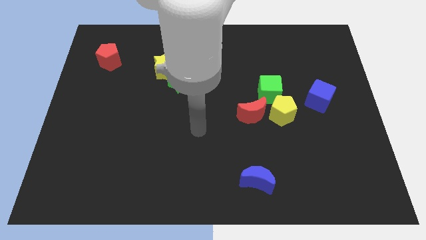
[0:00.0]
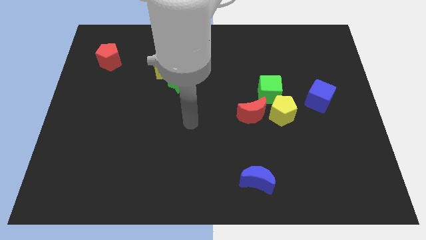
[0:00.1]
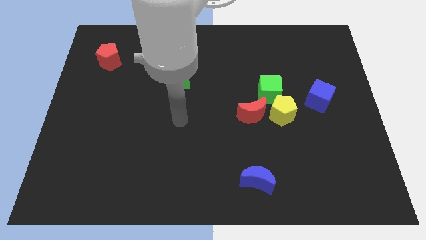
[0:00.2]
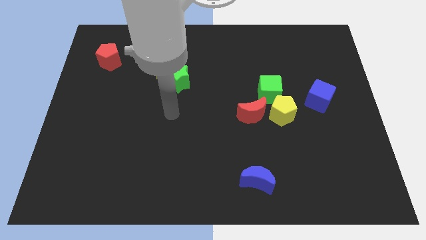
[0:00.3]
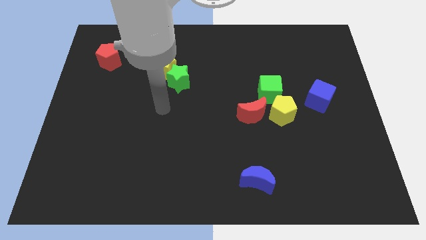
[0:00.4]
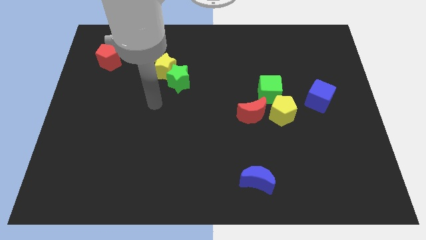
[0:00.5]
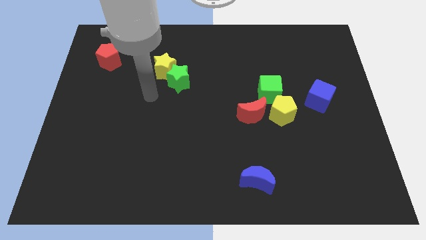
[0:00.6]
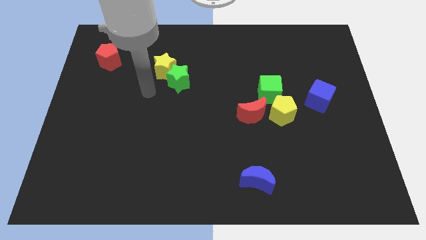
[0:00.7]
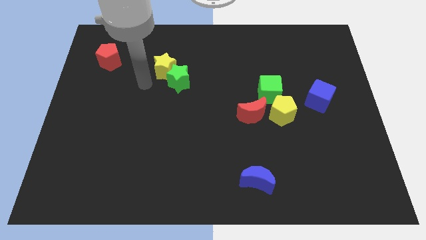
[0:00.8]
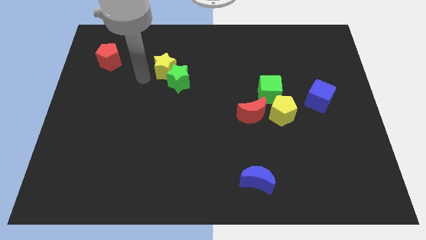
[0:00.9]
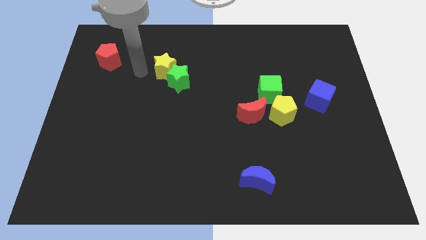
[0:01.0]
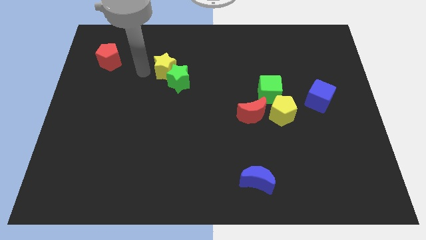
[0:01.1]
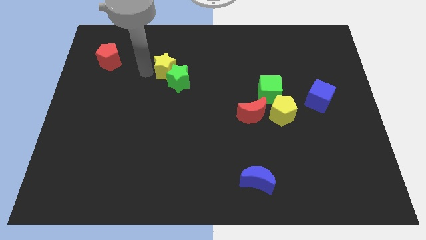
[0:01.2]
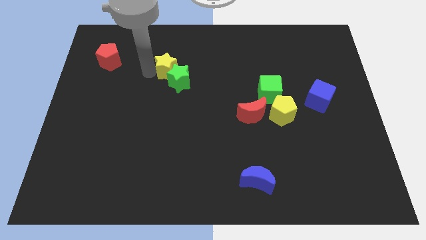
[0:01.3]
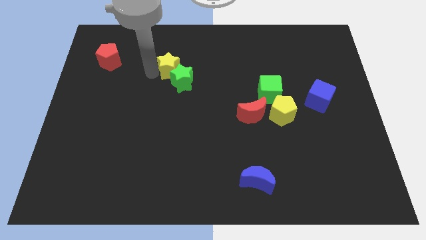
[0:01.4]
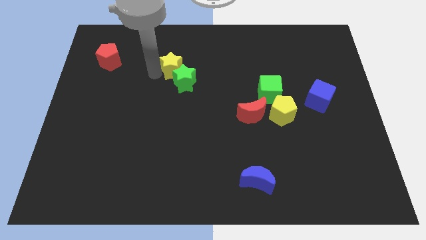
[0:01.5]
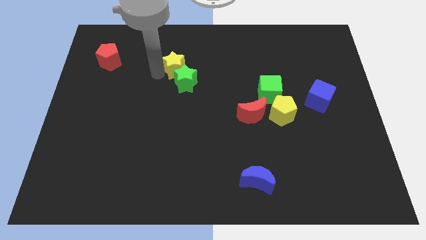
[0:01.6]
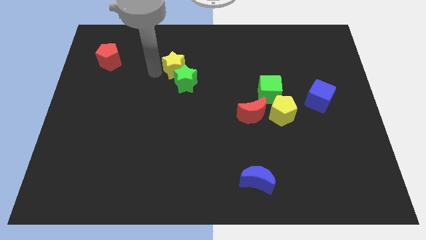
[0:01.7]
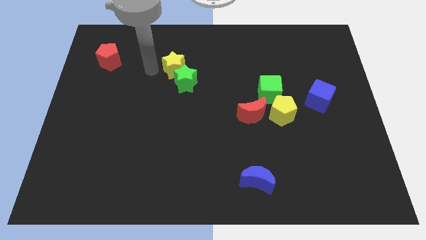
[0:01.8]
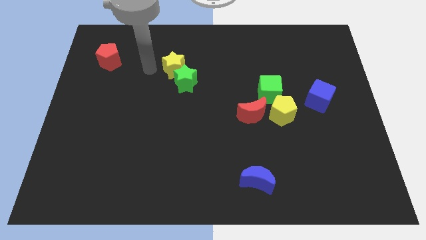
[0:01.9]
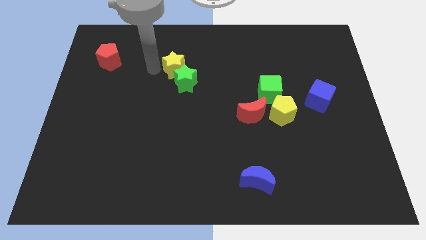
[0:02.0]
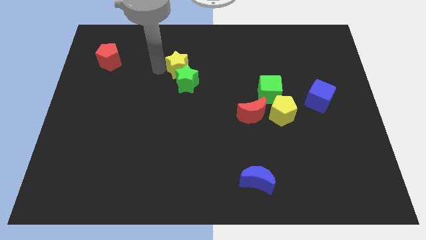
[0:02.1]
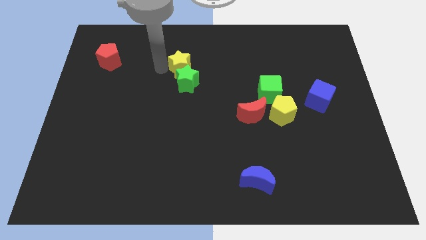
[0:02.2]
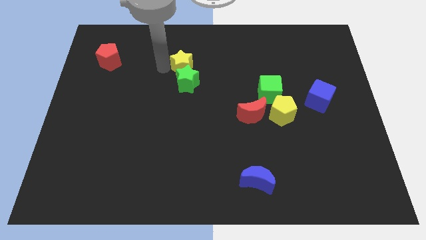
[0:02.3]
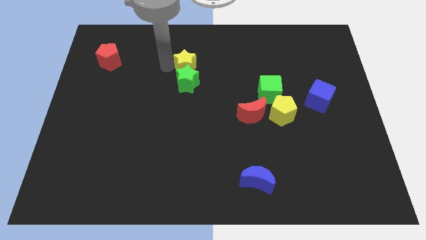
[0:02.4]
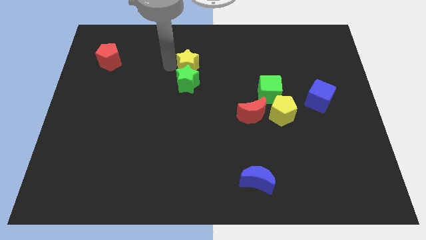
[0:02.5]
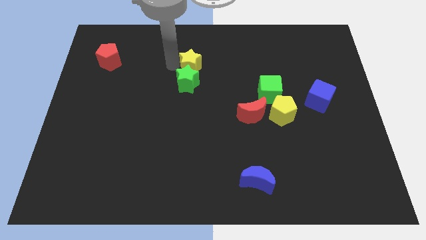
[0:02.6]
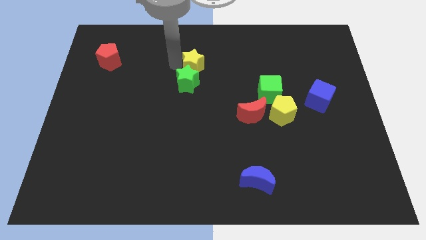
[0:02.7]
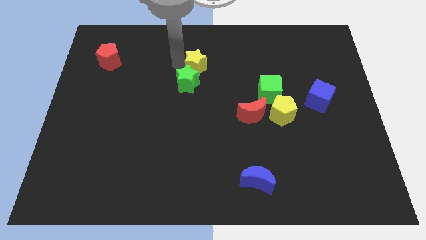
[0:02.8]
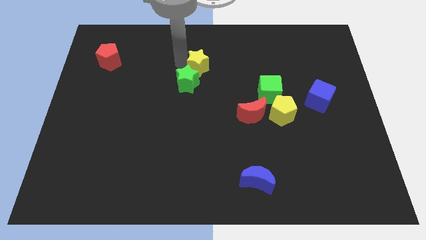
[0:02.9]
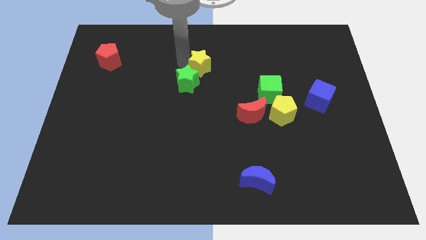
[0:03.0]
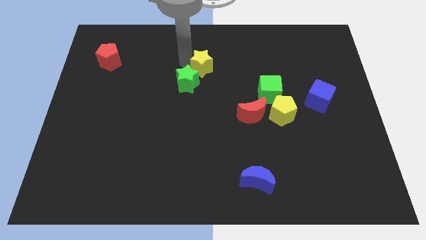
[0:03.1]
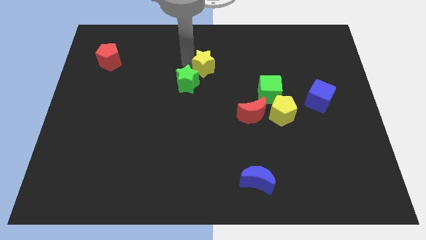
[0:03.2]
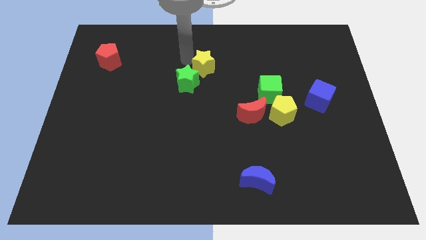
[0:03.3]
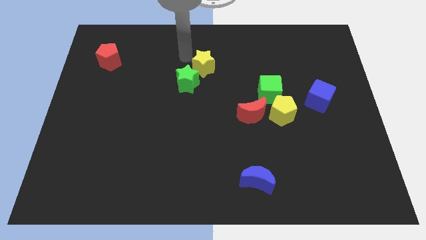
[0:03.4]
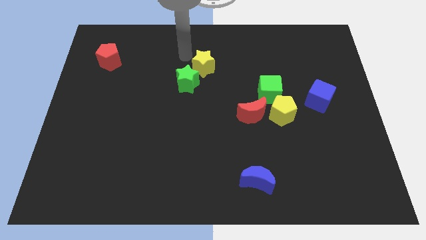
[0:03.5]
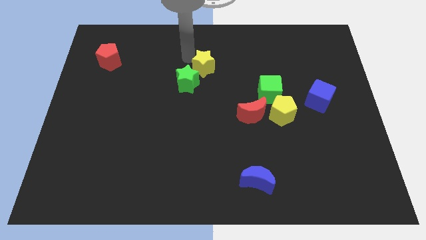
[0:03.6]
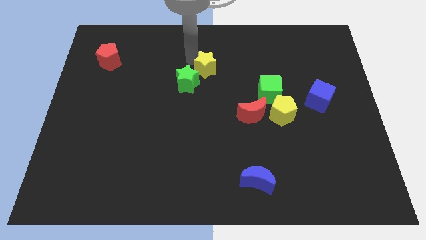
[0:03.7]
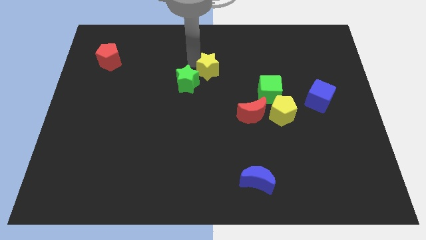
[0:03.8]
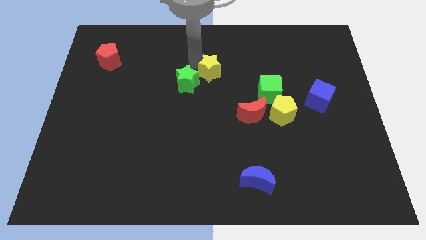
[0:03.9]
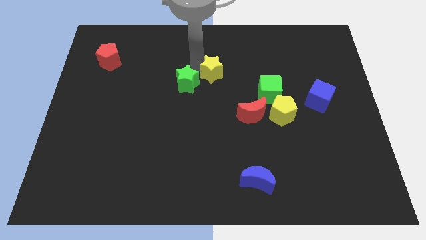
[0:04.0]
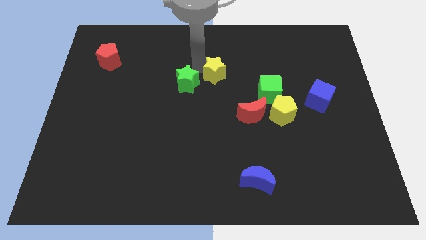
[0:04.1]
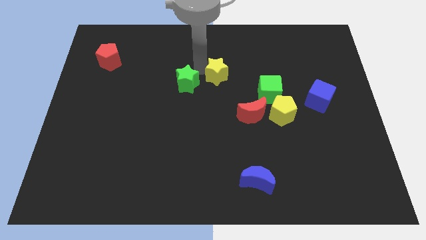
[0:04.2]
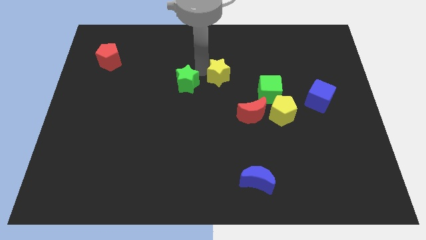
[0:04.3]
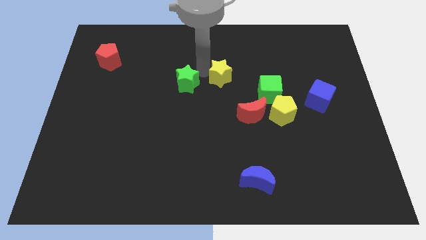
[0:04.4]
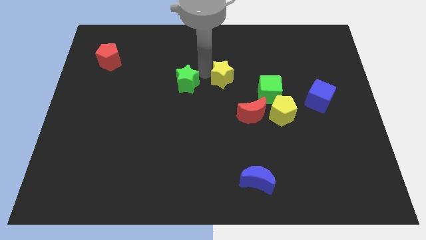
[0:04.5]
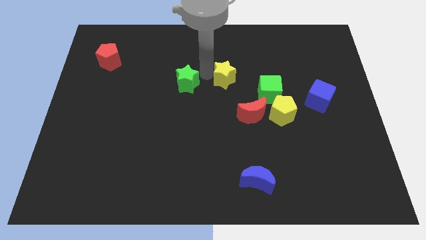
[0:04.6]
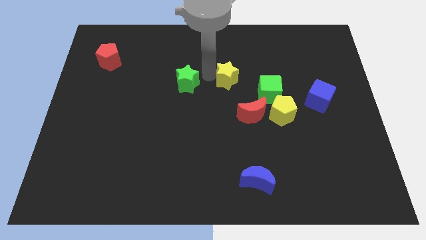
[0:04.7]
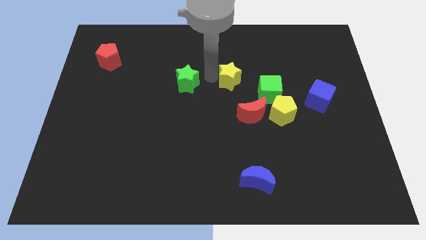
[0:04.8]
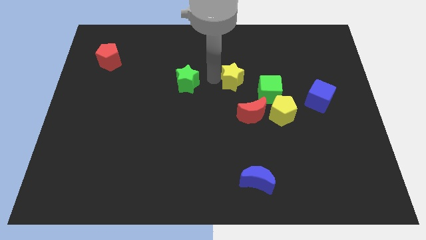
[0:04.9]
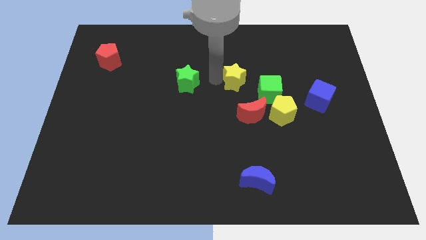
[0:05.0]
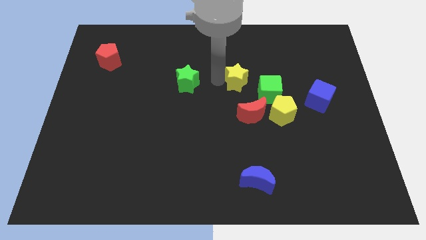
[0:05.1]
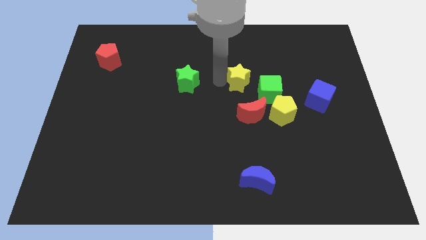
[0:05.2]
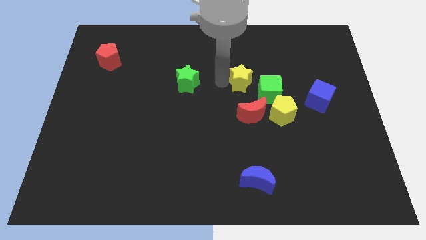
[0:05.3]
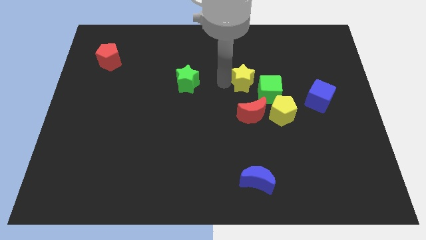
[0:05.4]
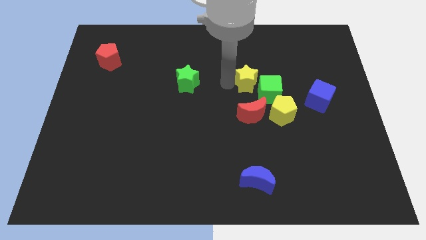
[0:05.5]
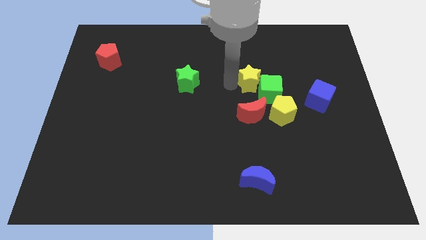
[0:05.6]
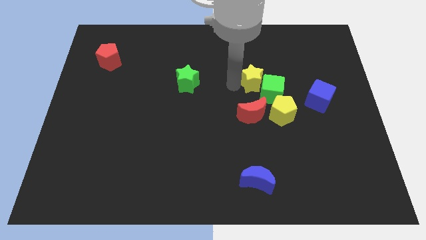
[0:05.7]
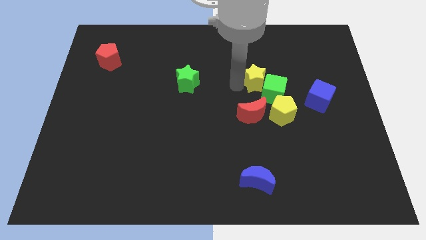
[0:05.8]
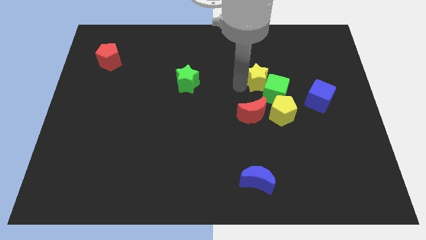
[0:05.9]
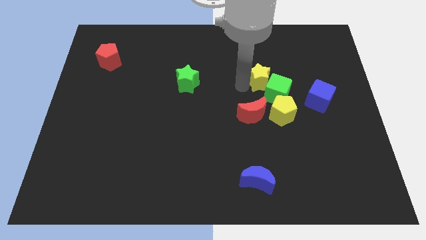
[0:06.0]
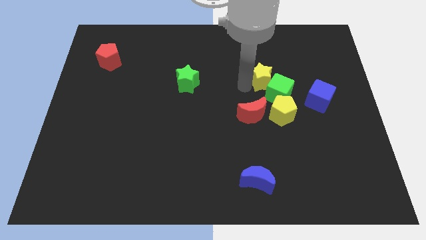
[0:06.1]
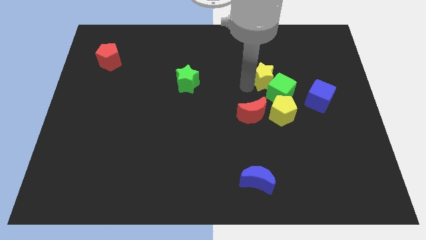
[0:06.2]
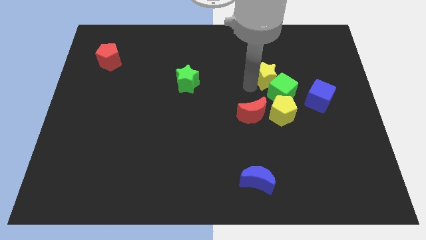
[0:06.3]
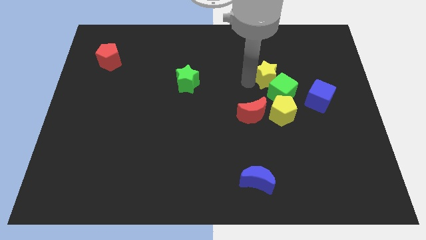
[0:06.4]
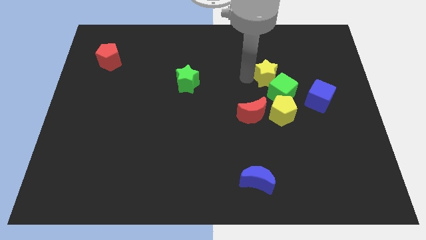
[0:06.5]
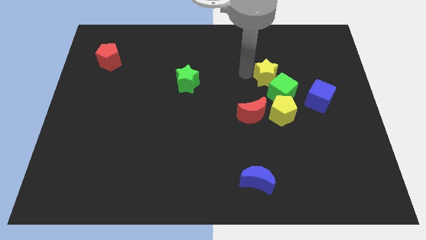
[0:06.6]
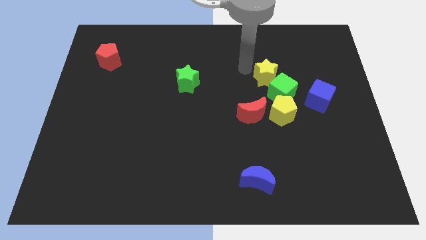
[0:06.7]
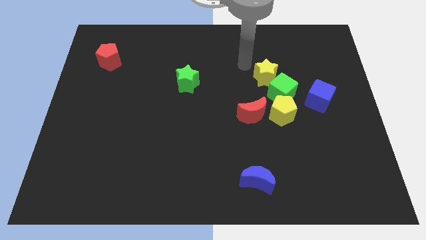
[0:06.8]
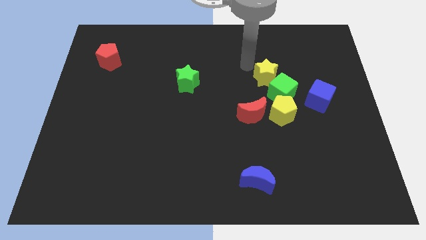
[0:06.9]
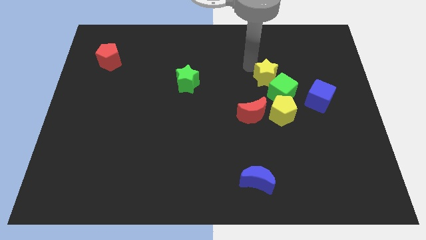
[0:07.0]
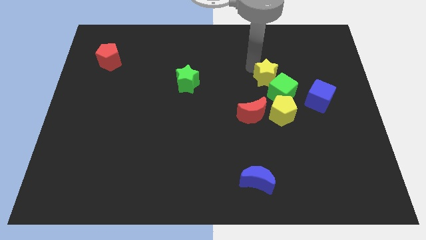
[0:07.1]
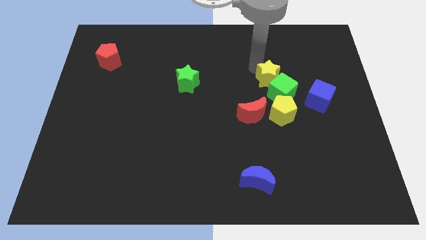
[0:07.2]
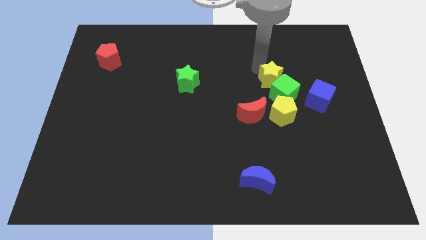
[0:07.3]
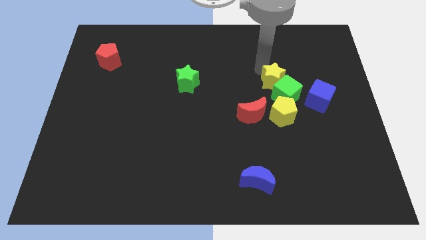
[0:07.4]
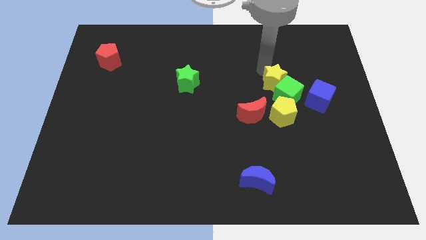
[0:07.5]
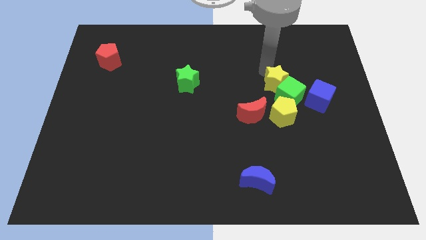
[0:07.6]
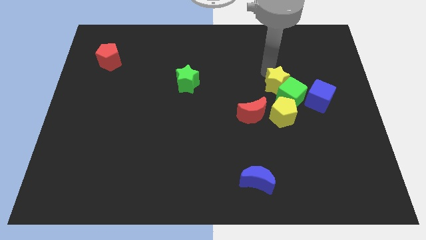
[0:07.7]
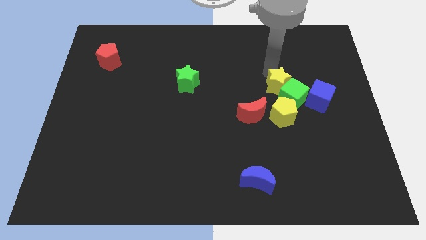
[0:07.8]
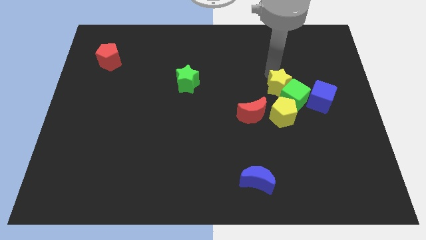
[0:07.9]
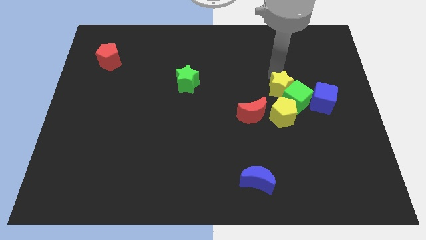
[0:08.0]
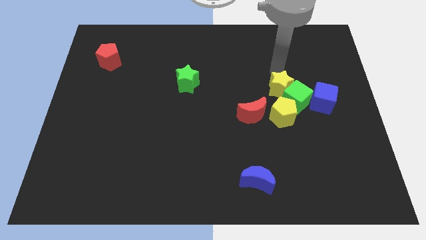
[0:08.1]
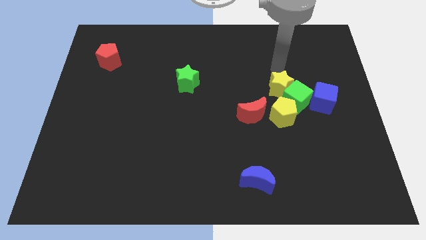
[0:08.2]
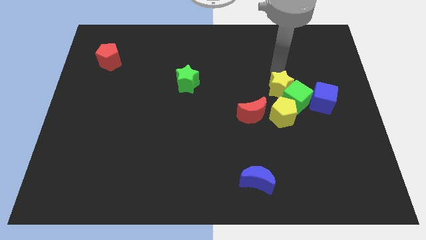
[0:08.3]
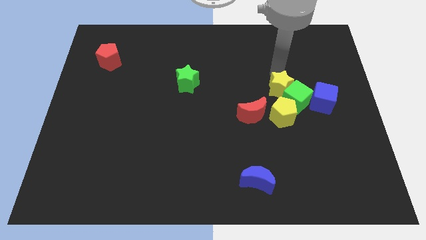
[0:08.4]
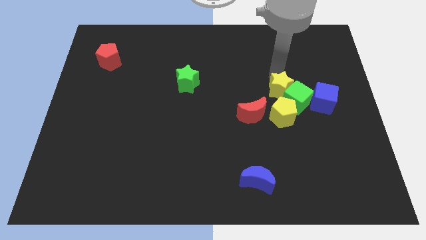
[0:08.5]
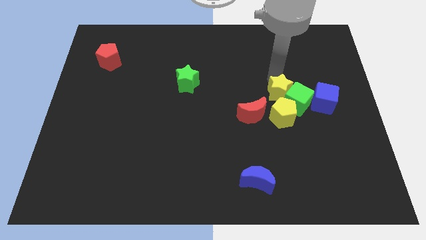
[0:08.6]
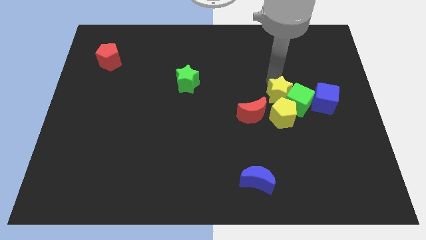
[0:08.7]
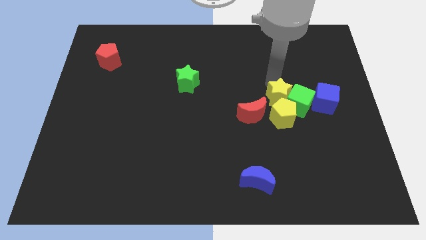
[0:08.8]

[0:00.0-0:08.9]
slide the yellow star to the yellow pentagon
